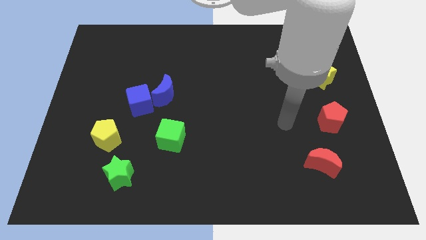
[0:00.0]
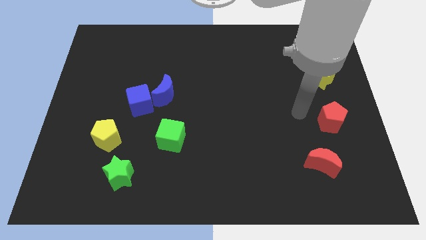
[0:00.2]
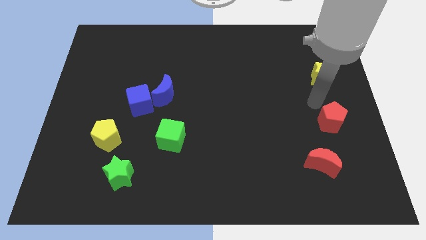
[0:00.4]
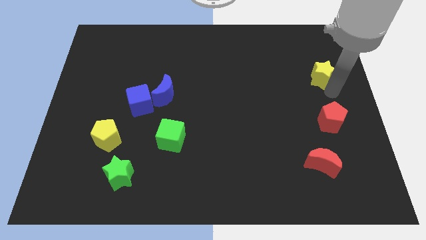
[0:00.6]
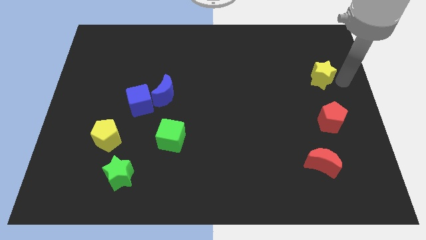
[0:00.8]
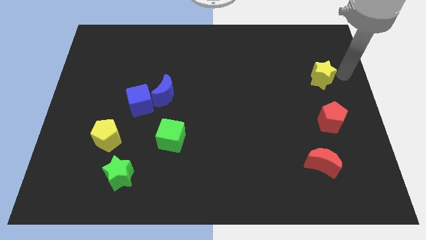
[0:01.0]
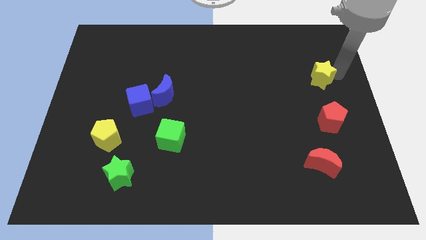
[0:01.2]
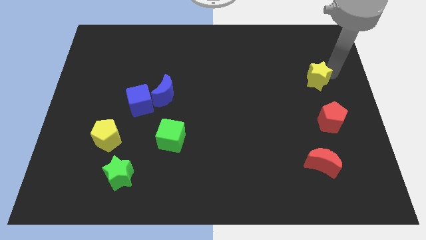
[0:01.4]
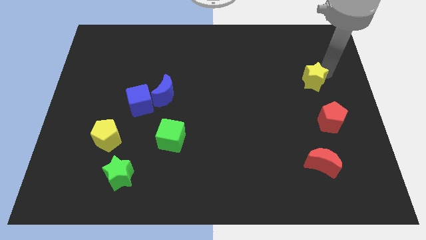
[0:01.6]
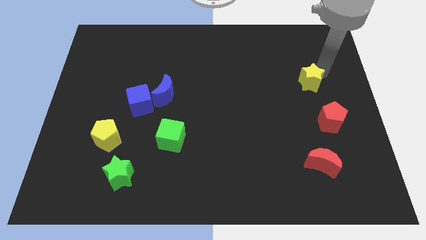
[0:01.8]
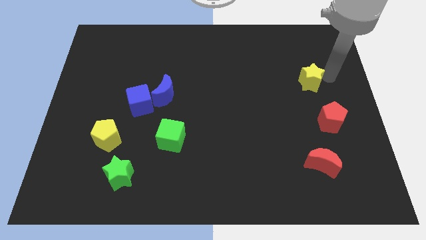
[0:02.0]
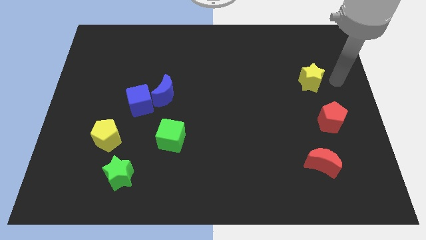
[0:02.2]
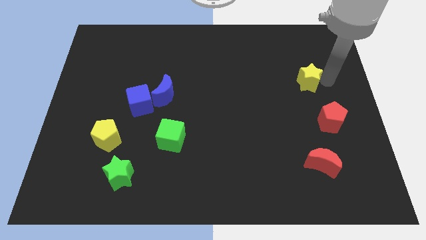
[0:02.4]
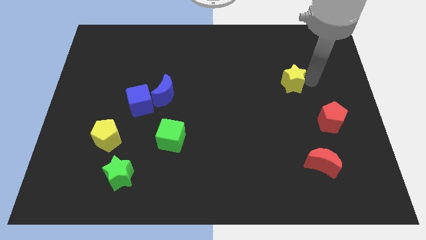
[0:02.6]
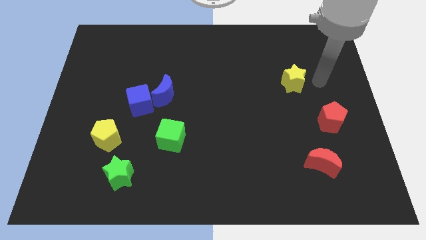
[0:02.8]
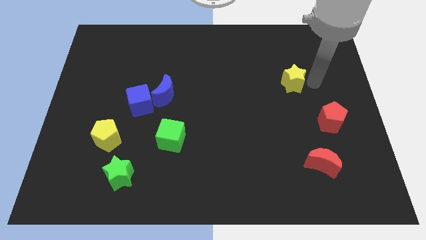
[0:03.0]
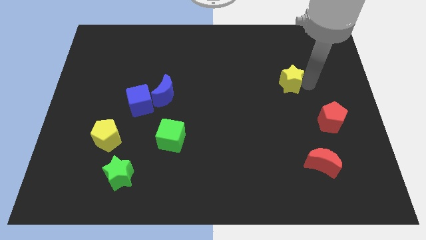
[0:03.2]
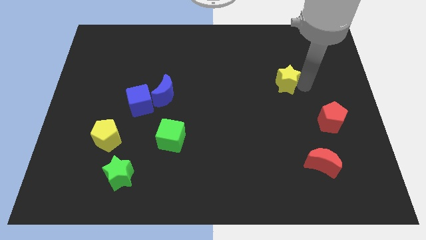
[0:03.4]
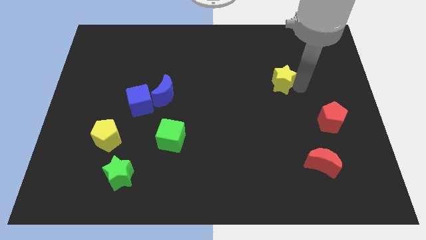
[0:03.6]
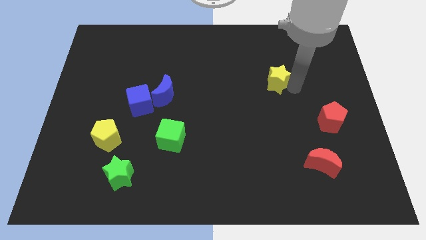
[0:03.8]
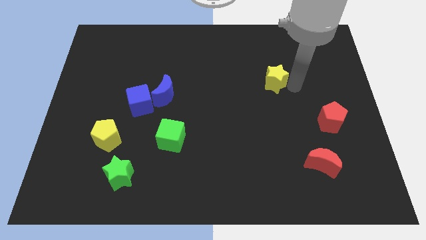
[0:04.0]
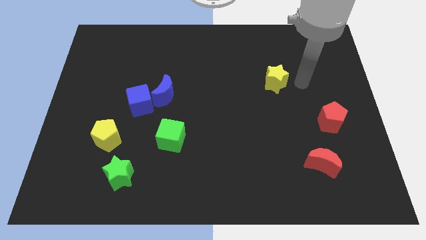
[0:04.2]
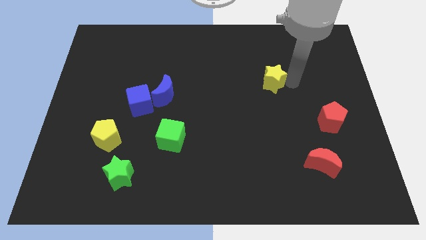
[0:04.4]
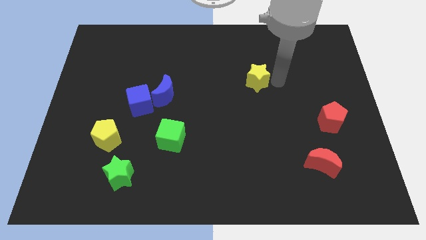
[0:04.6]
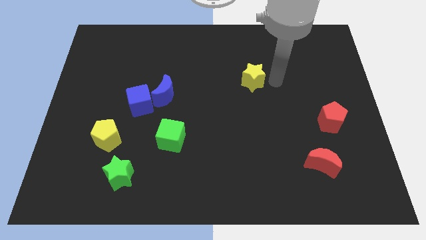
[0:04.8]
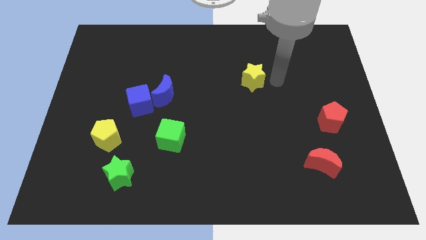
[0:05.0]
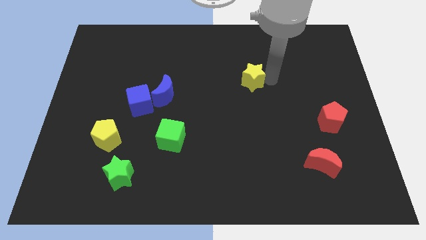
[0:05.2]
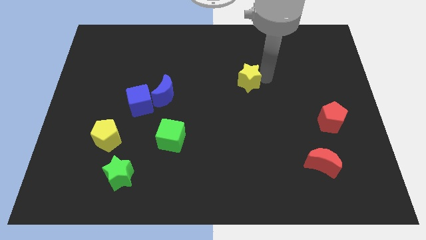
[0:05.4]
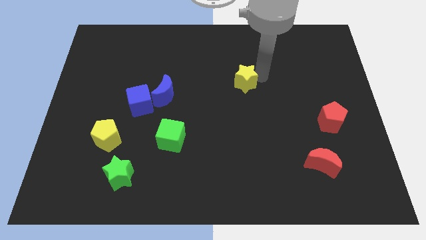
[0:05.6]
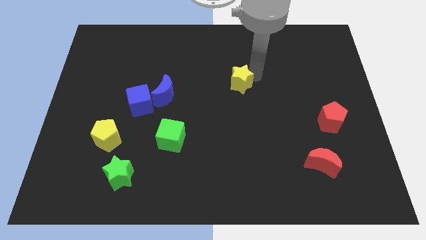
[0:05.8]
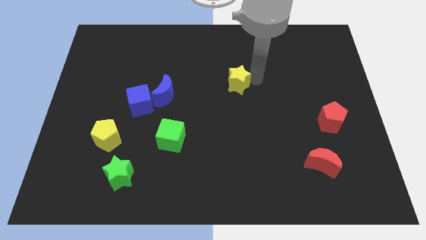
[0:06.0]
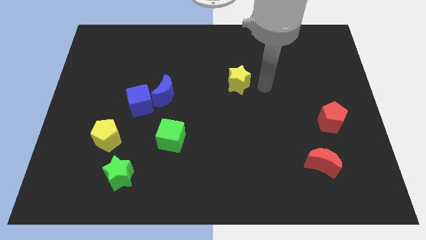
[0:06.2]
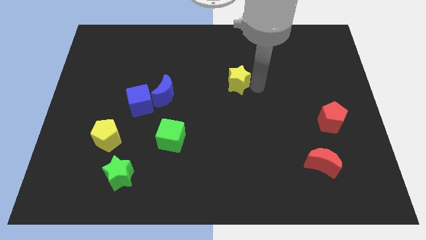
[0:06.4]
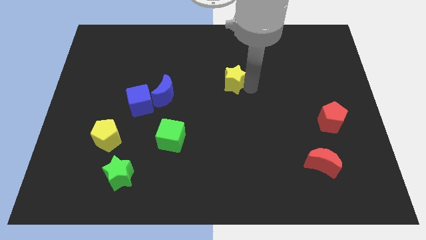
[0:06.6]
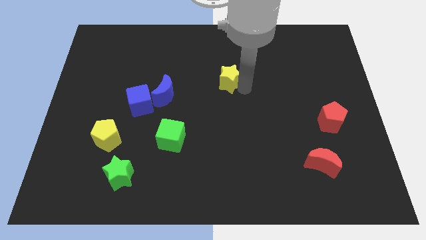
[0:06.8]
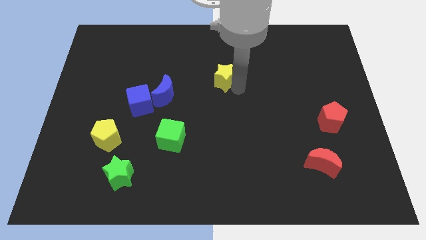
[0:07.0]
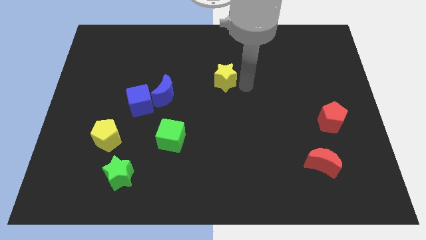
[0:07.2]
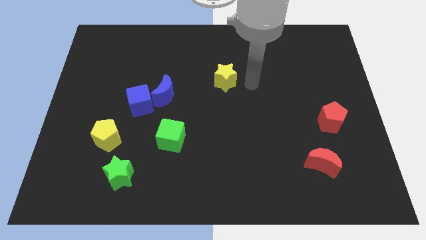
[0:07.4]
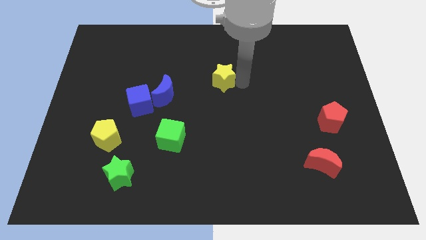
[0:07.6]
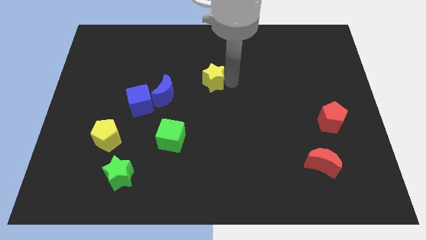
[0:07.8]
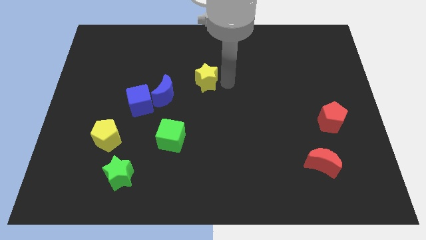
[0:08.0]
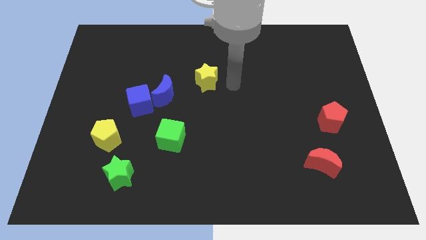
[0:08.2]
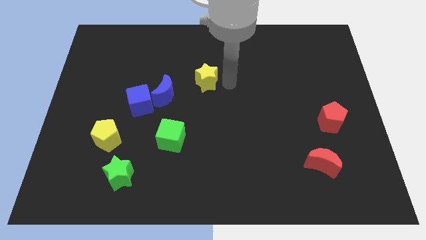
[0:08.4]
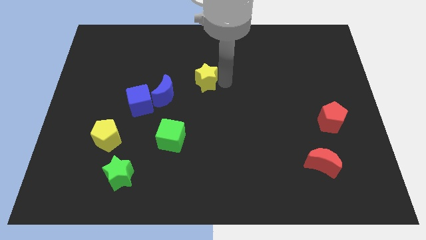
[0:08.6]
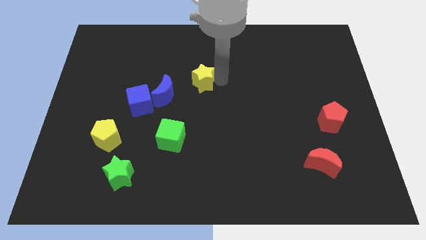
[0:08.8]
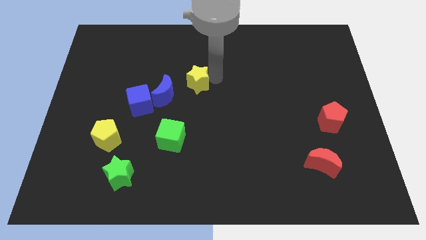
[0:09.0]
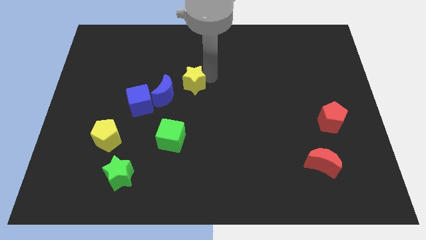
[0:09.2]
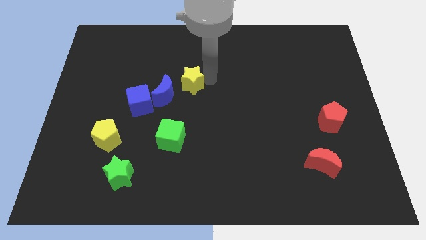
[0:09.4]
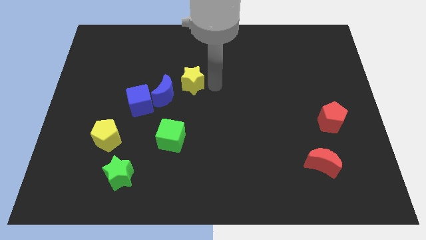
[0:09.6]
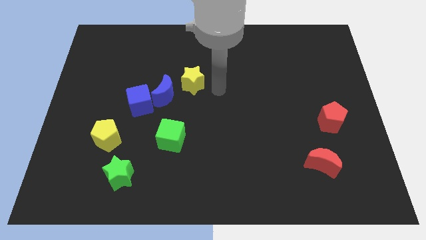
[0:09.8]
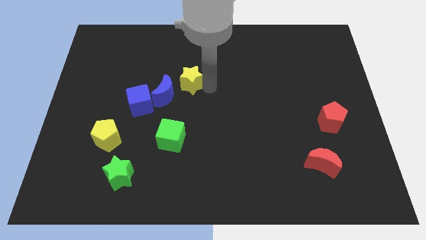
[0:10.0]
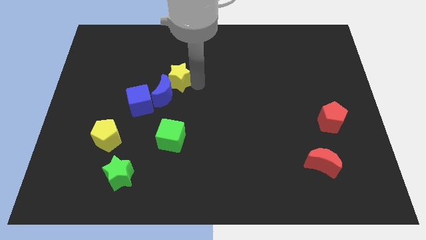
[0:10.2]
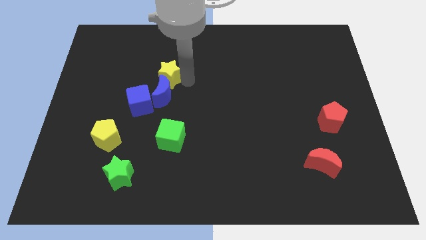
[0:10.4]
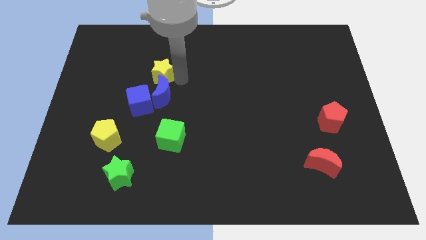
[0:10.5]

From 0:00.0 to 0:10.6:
put the yellow star above the blue cube
